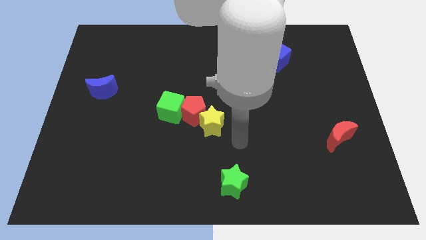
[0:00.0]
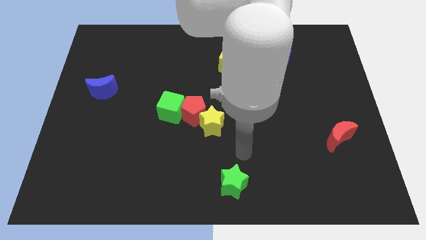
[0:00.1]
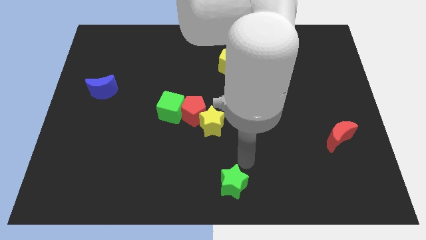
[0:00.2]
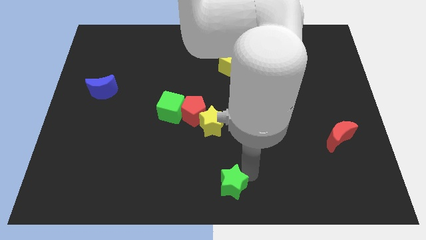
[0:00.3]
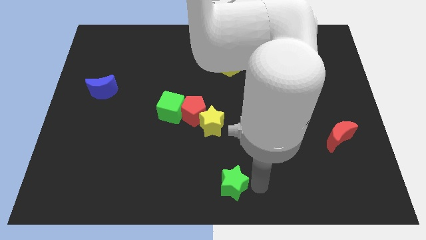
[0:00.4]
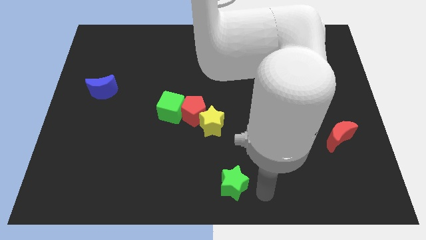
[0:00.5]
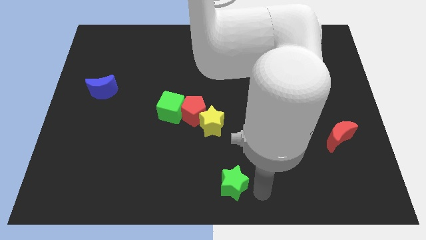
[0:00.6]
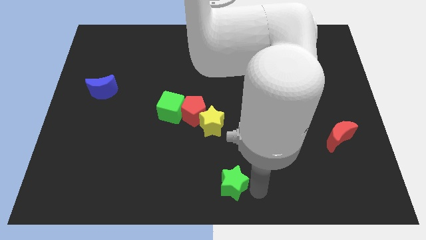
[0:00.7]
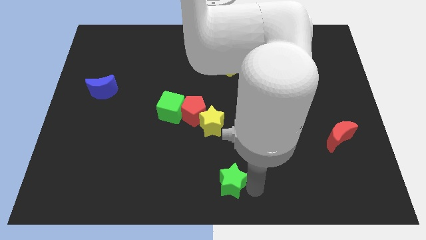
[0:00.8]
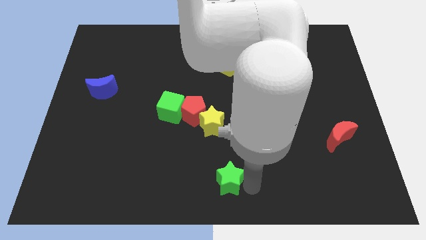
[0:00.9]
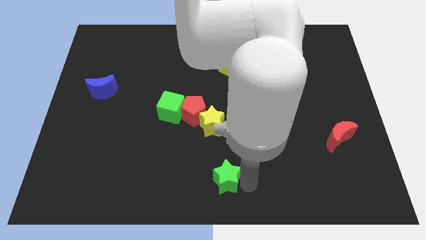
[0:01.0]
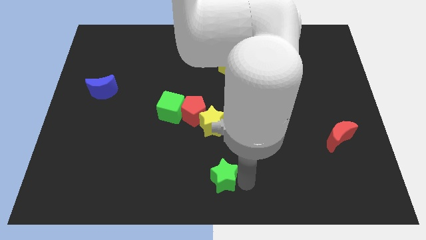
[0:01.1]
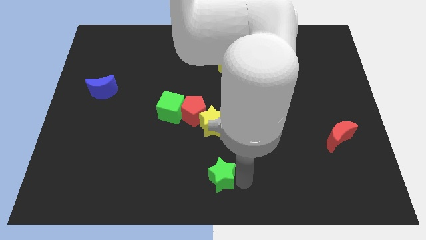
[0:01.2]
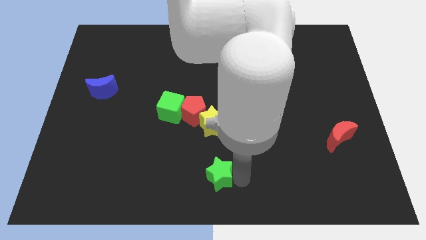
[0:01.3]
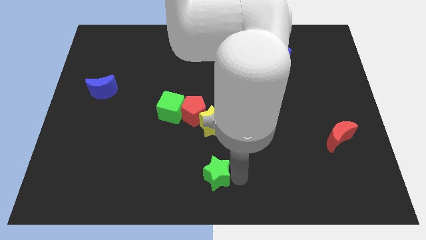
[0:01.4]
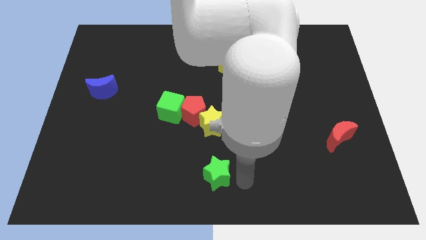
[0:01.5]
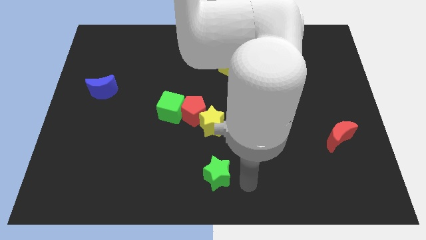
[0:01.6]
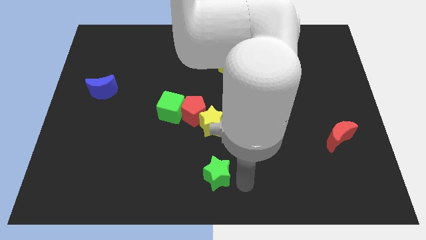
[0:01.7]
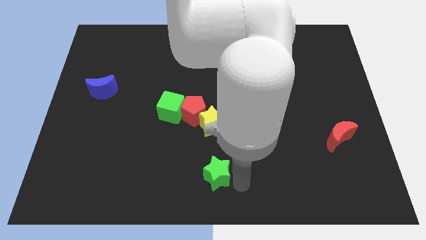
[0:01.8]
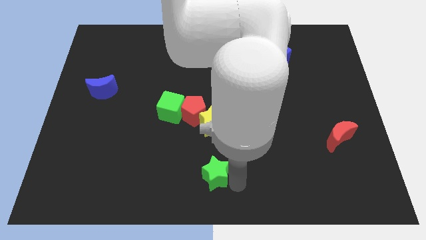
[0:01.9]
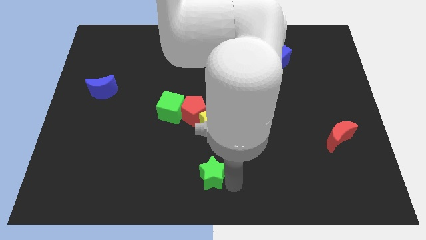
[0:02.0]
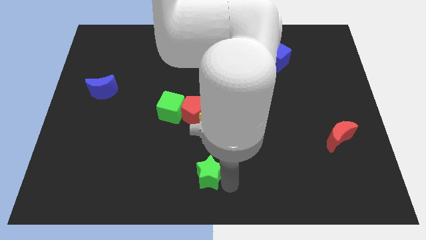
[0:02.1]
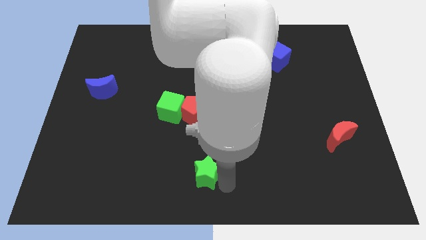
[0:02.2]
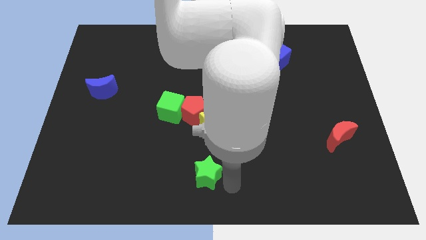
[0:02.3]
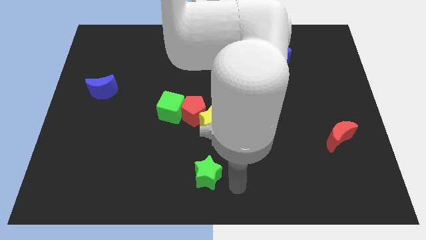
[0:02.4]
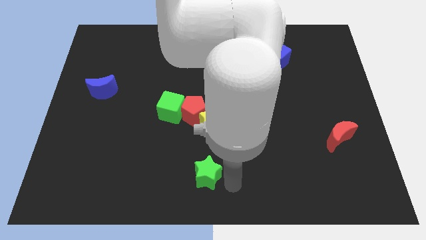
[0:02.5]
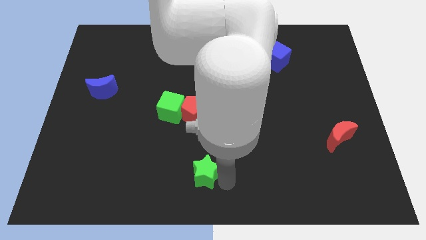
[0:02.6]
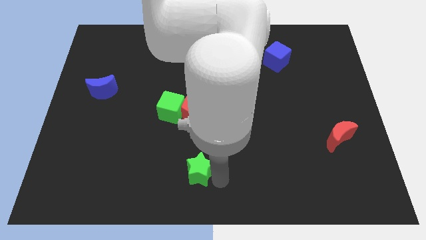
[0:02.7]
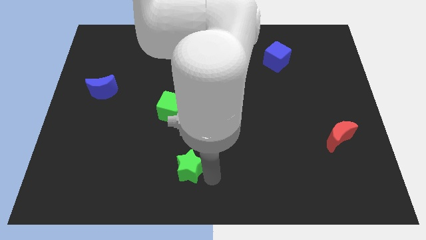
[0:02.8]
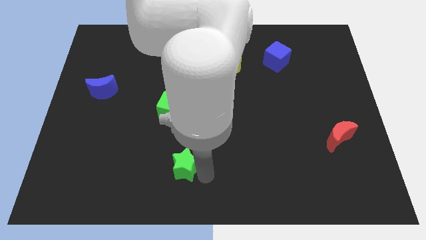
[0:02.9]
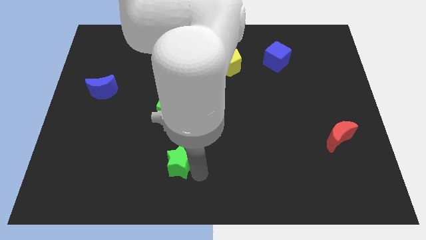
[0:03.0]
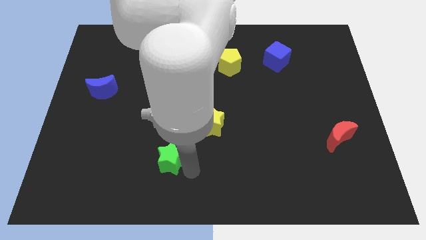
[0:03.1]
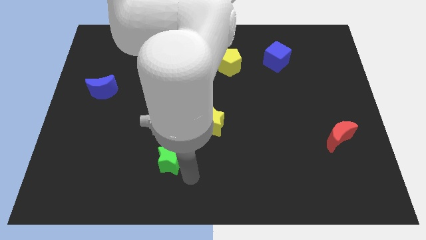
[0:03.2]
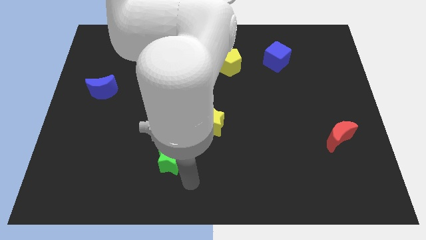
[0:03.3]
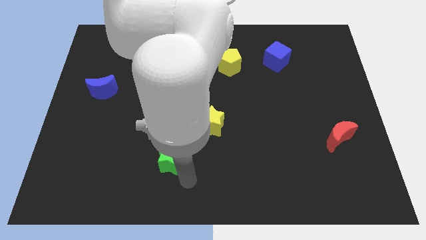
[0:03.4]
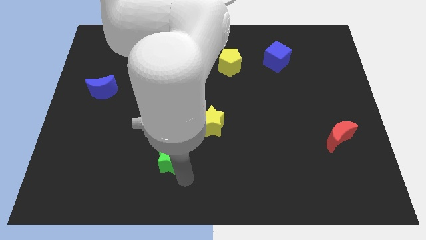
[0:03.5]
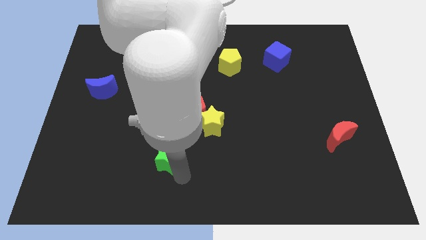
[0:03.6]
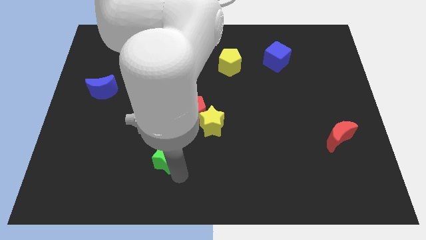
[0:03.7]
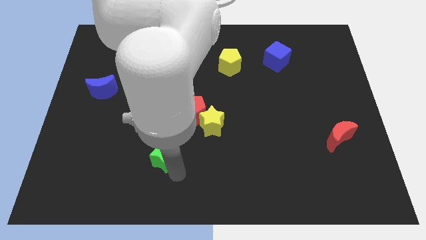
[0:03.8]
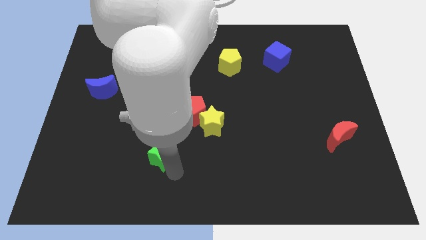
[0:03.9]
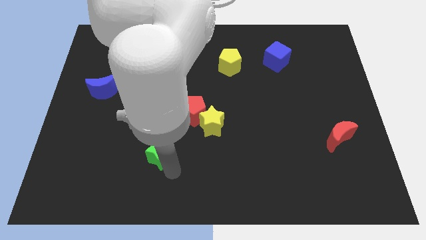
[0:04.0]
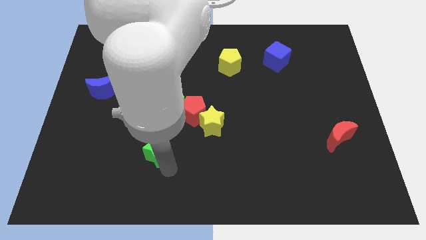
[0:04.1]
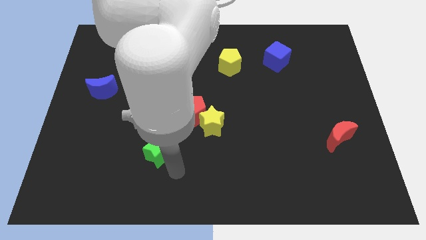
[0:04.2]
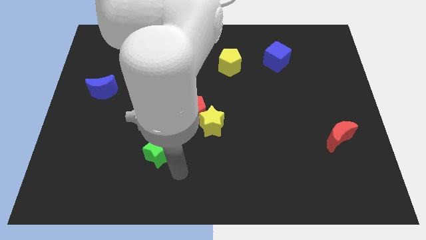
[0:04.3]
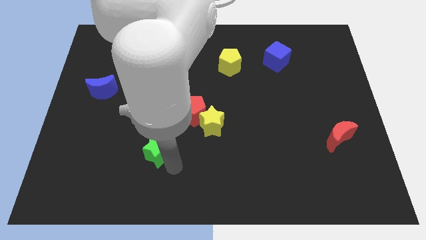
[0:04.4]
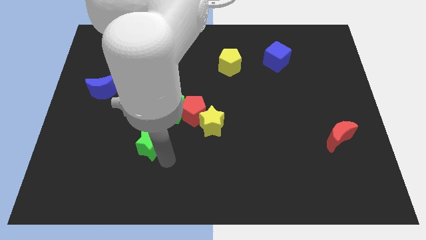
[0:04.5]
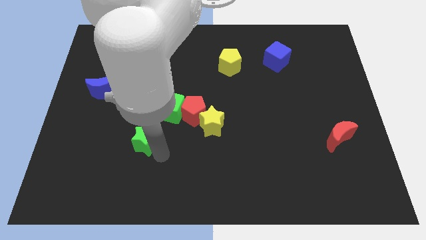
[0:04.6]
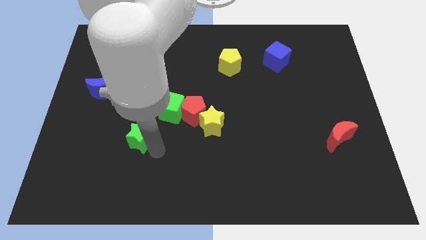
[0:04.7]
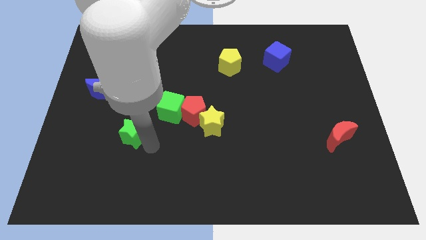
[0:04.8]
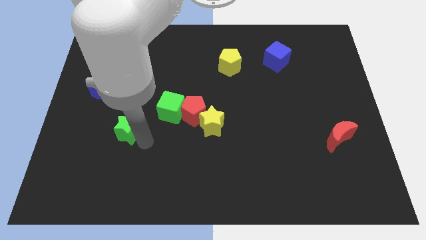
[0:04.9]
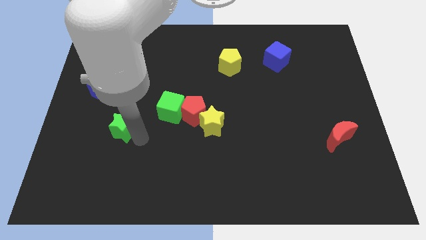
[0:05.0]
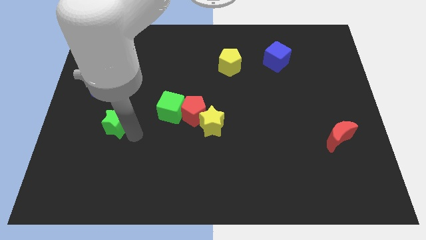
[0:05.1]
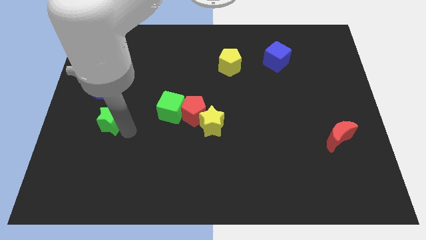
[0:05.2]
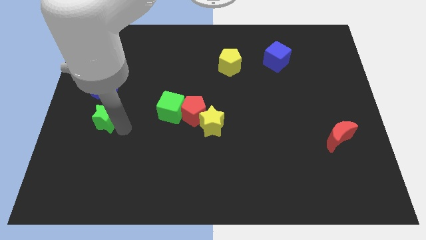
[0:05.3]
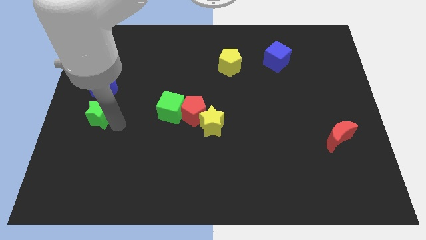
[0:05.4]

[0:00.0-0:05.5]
move the green star to the left side

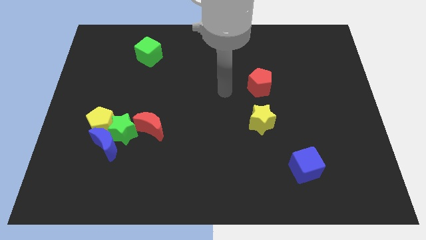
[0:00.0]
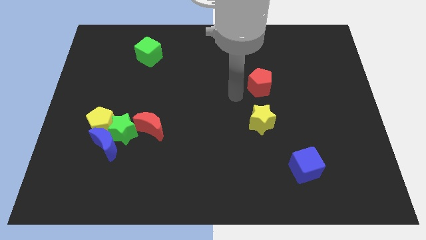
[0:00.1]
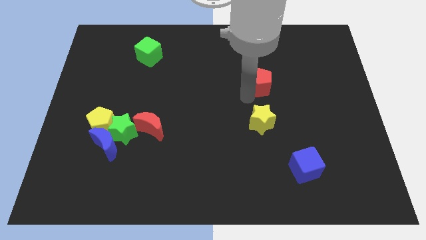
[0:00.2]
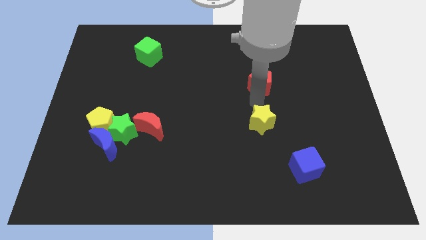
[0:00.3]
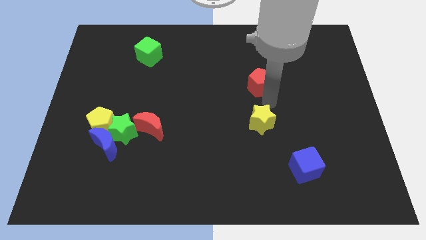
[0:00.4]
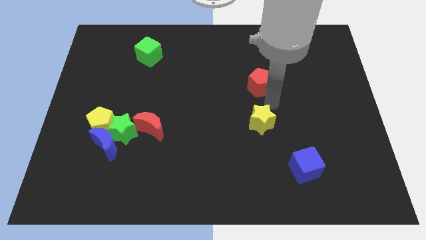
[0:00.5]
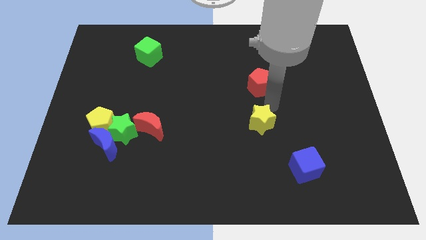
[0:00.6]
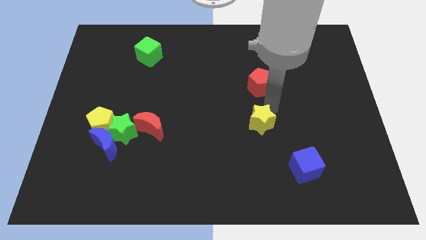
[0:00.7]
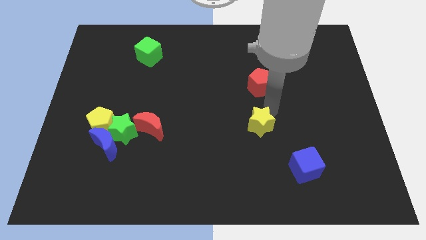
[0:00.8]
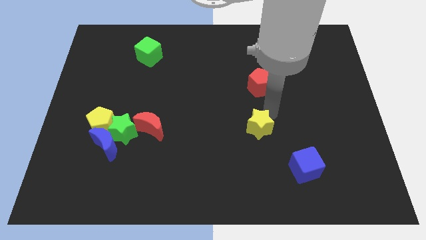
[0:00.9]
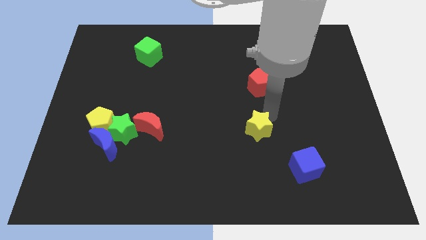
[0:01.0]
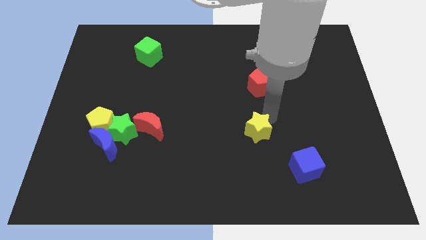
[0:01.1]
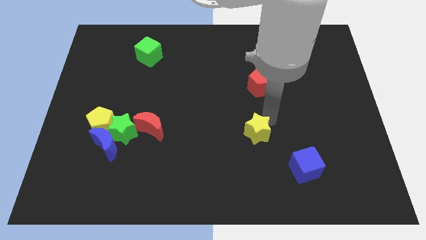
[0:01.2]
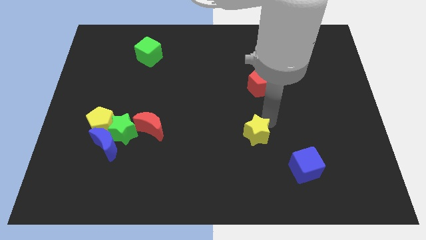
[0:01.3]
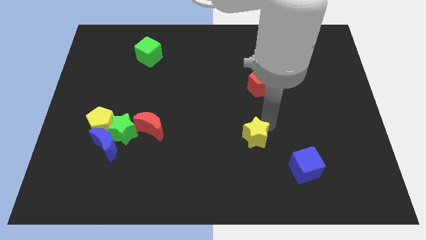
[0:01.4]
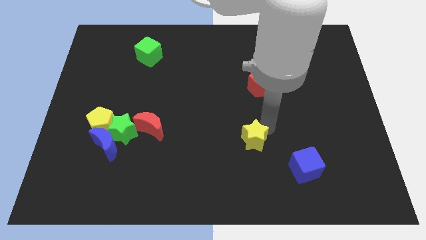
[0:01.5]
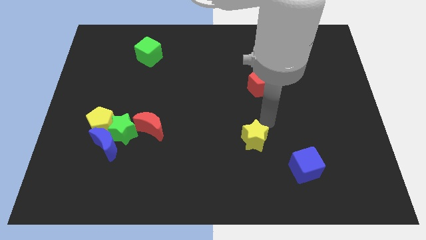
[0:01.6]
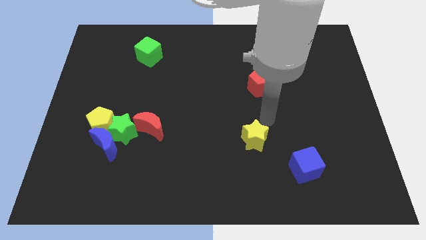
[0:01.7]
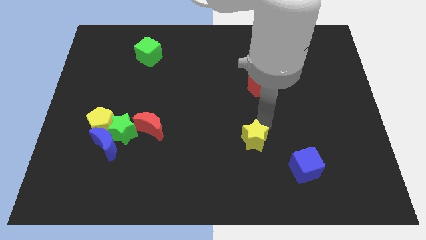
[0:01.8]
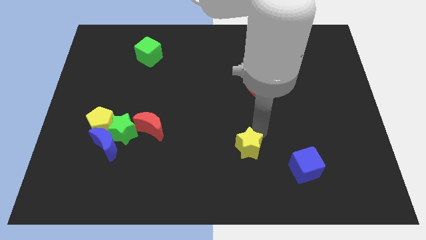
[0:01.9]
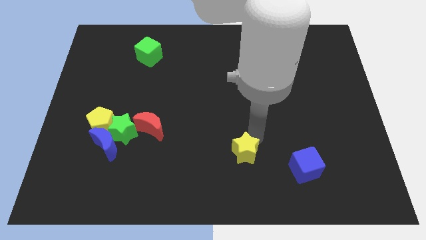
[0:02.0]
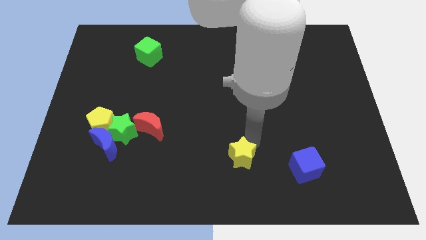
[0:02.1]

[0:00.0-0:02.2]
move the yellow star to the bottom
